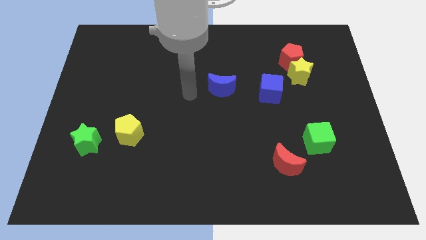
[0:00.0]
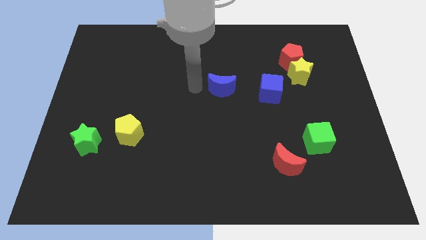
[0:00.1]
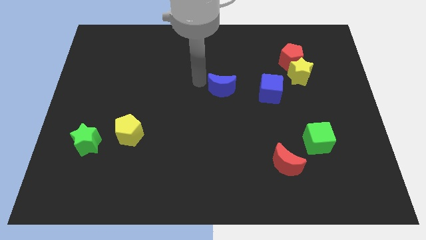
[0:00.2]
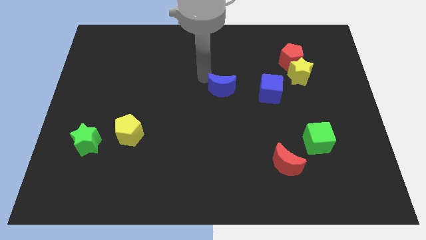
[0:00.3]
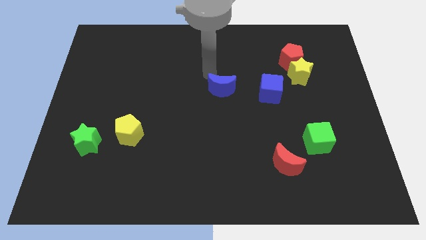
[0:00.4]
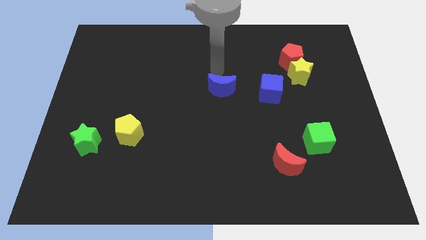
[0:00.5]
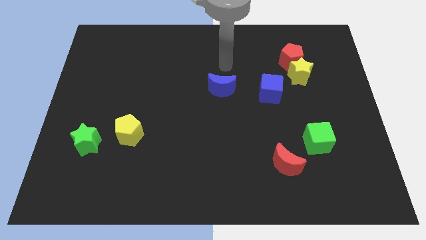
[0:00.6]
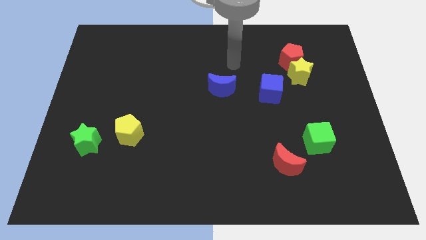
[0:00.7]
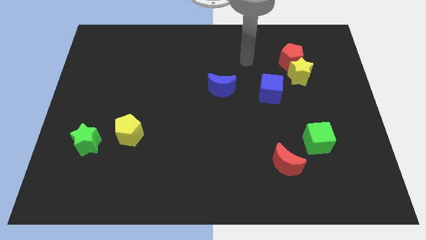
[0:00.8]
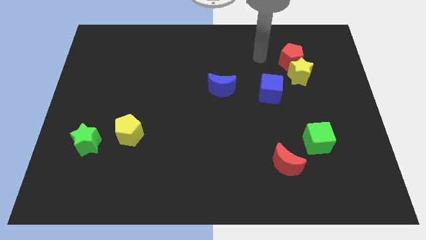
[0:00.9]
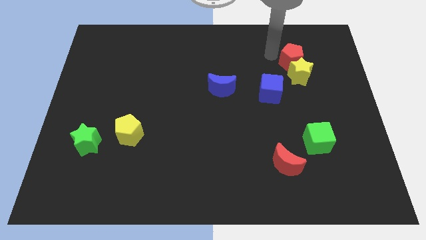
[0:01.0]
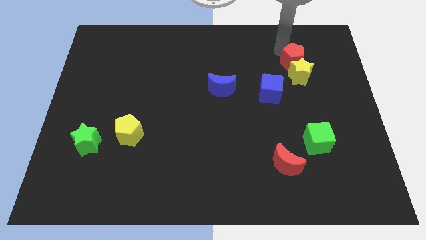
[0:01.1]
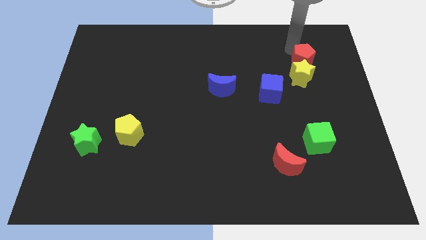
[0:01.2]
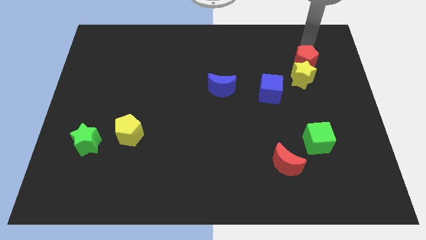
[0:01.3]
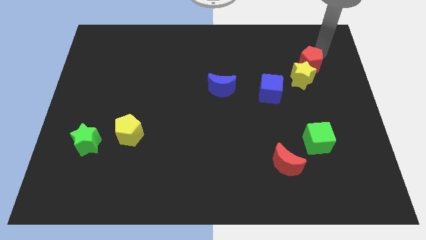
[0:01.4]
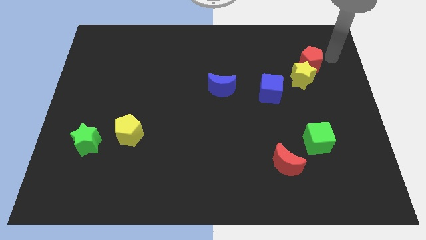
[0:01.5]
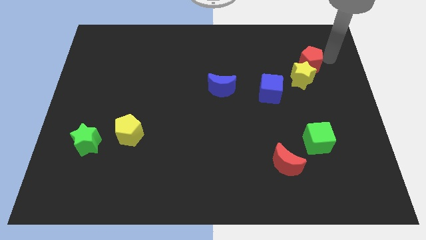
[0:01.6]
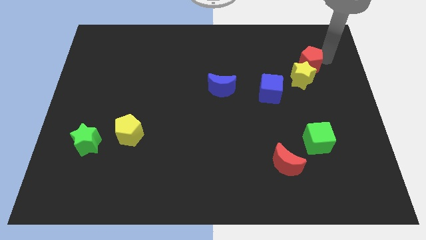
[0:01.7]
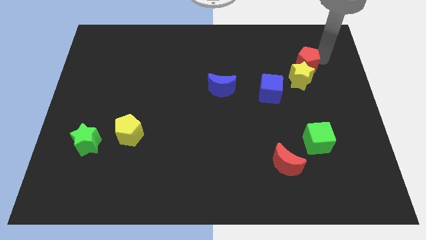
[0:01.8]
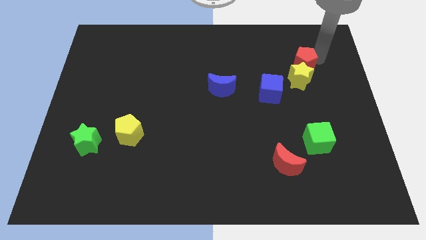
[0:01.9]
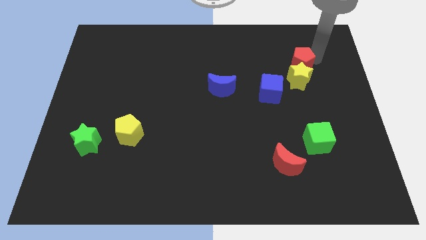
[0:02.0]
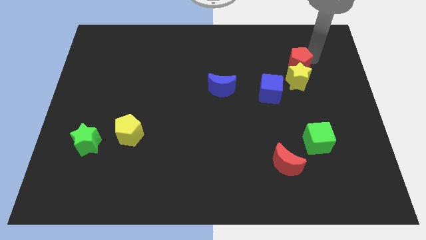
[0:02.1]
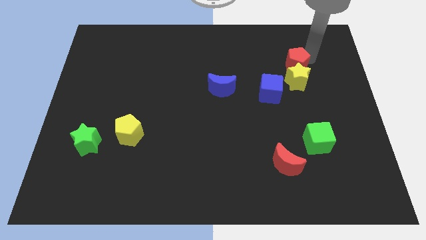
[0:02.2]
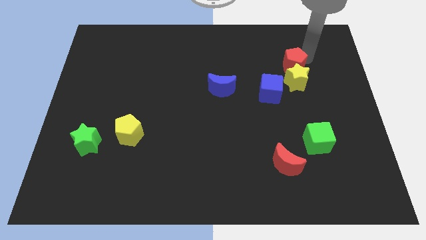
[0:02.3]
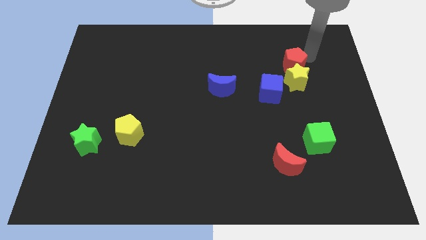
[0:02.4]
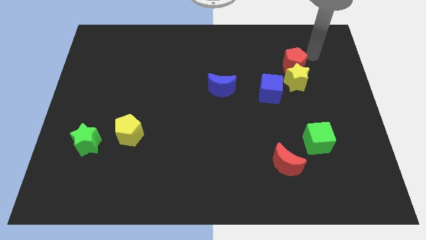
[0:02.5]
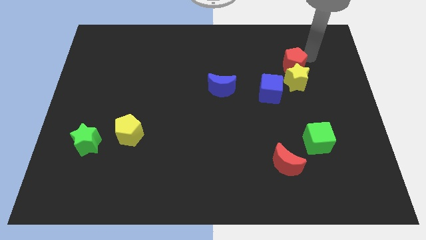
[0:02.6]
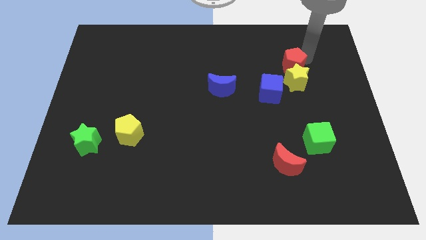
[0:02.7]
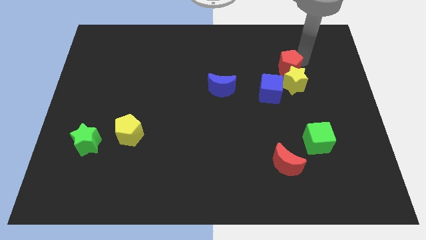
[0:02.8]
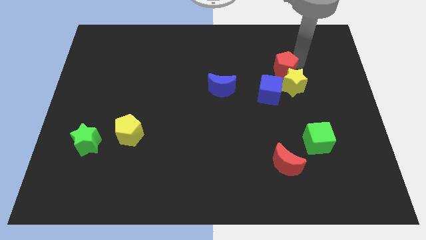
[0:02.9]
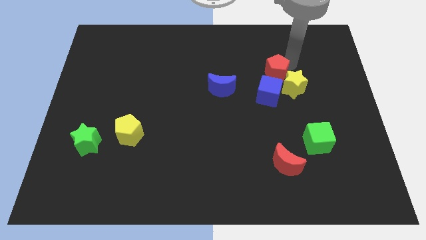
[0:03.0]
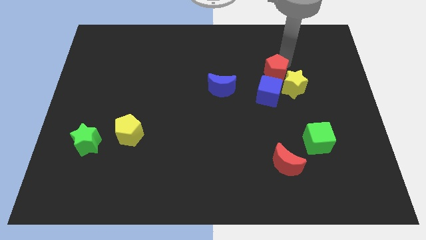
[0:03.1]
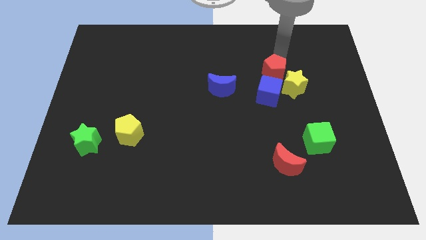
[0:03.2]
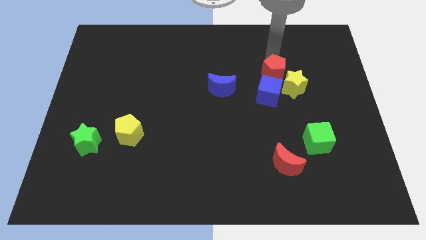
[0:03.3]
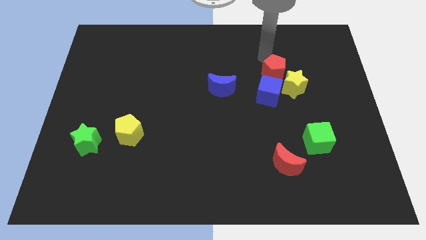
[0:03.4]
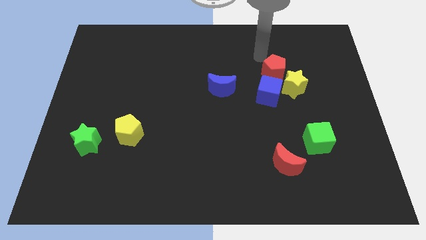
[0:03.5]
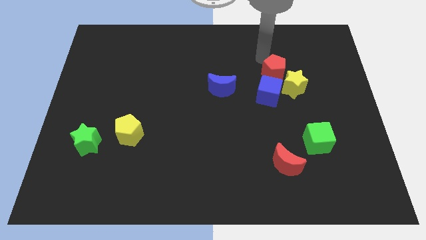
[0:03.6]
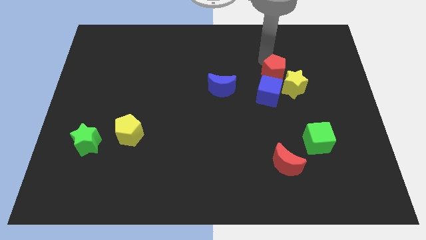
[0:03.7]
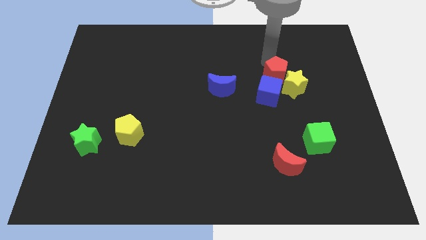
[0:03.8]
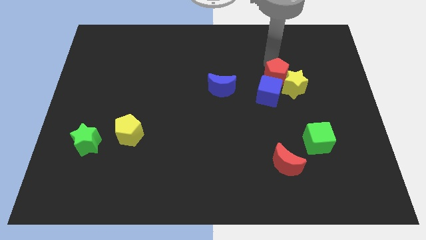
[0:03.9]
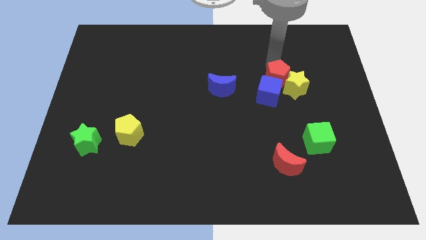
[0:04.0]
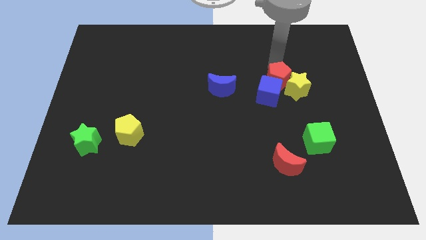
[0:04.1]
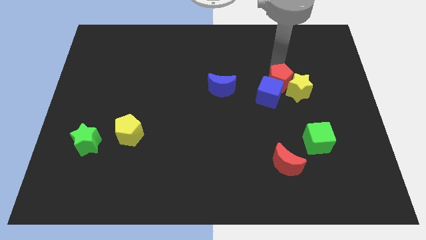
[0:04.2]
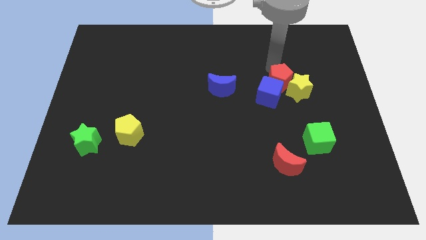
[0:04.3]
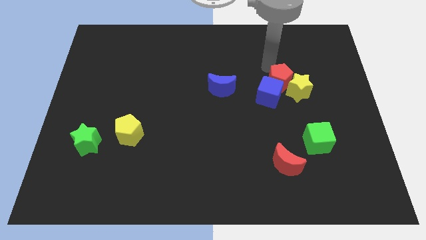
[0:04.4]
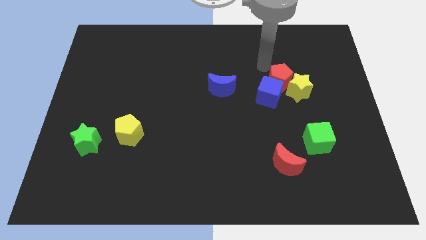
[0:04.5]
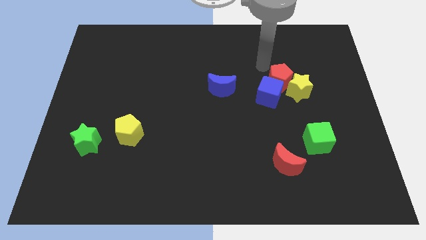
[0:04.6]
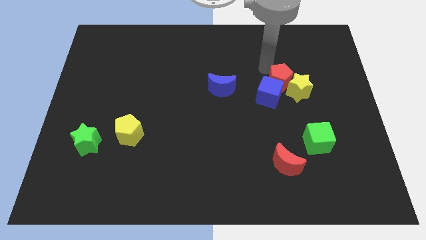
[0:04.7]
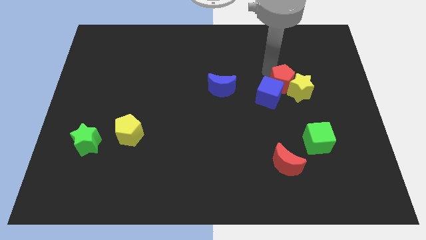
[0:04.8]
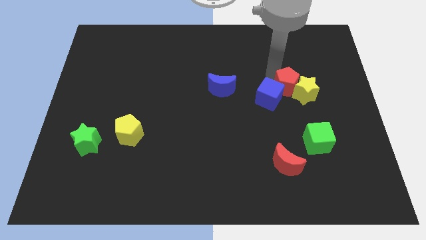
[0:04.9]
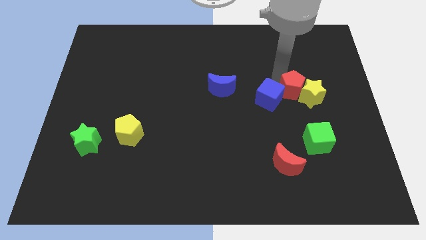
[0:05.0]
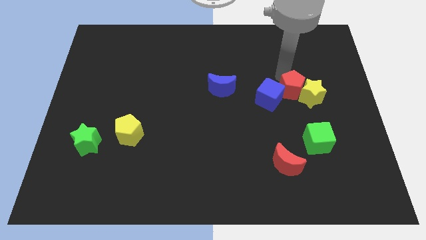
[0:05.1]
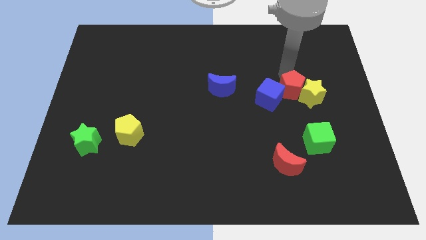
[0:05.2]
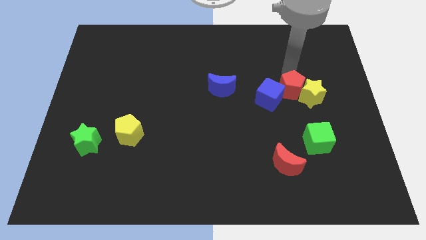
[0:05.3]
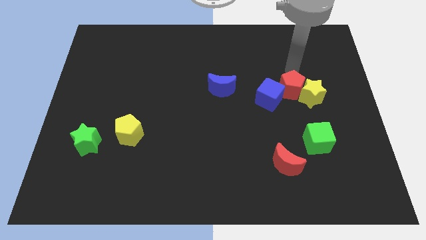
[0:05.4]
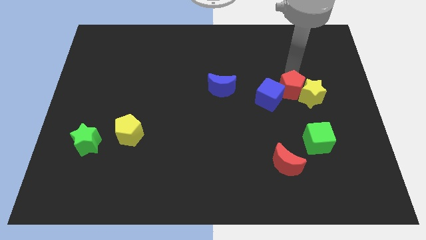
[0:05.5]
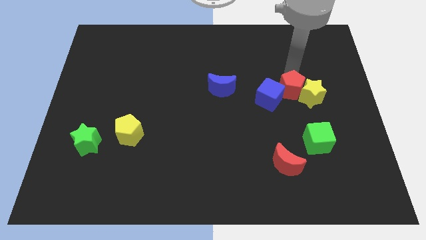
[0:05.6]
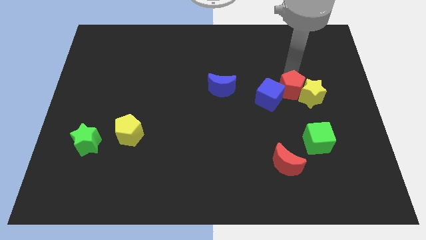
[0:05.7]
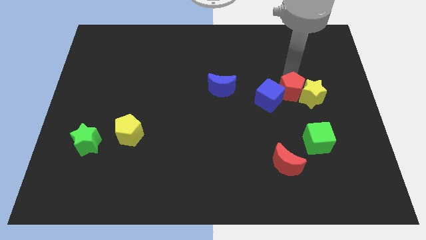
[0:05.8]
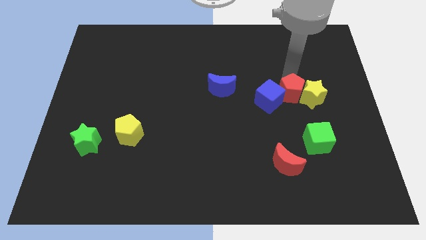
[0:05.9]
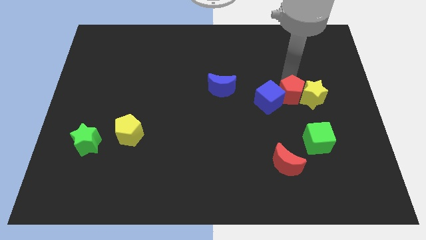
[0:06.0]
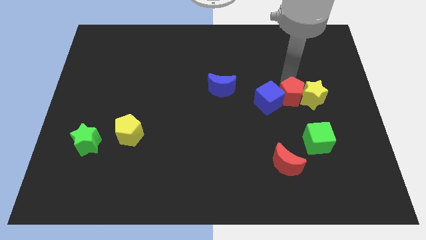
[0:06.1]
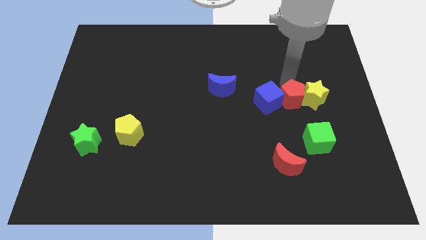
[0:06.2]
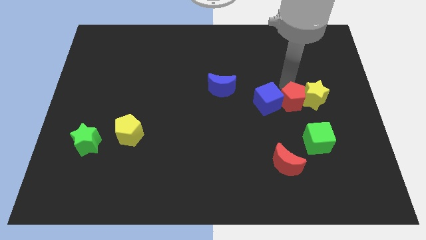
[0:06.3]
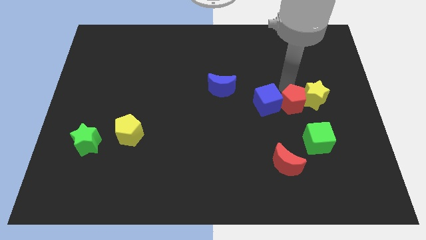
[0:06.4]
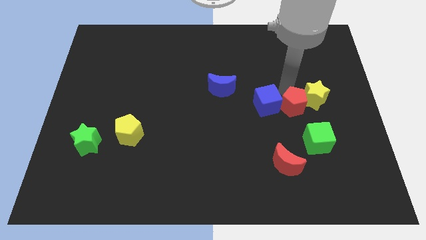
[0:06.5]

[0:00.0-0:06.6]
put the red pentagon to the top left side of the green cube

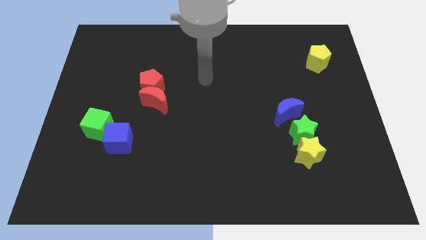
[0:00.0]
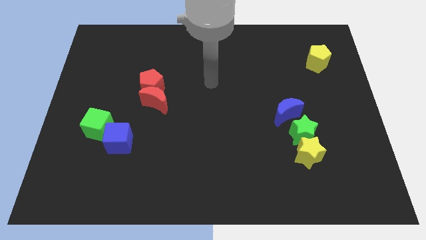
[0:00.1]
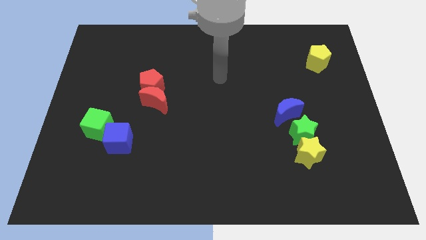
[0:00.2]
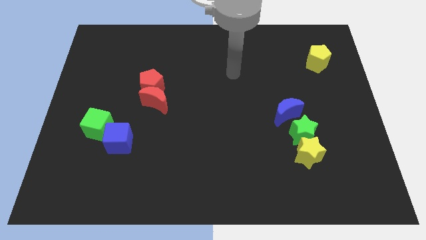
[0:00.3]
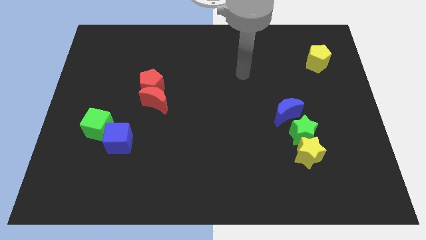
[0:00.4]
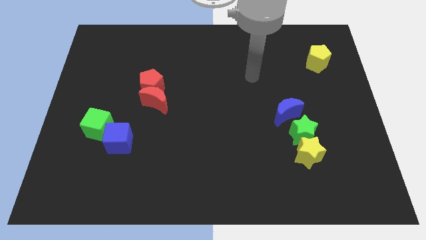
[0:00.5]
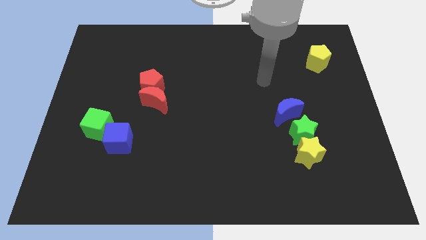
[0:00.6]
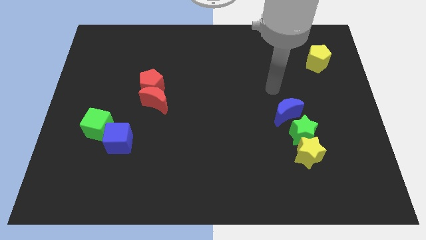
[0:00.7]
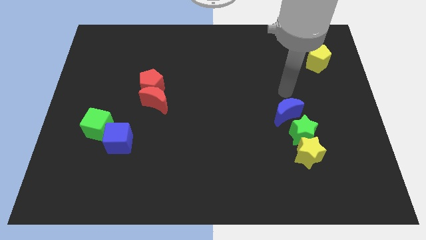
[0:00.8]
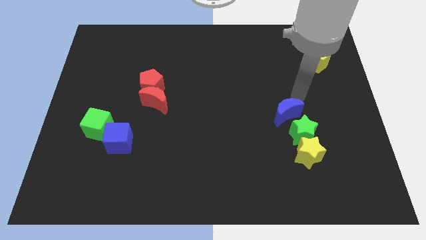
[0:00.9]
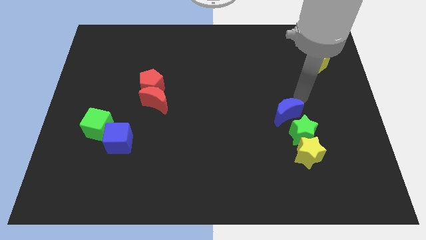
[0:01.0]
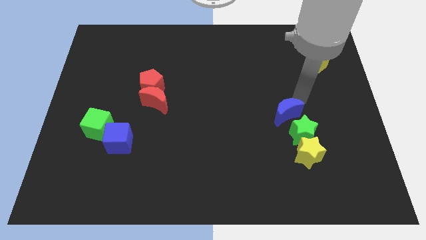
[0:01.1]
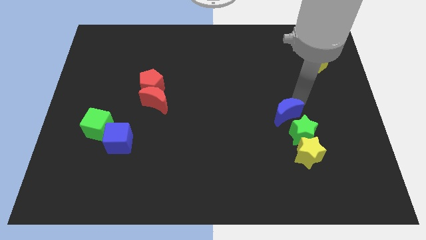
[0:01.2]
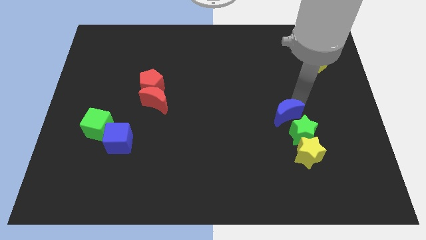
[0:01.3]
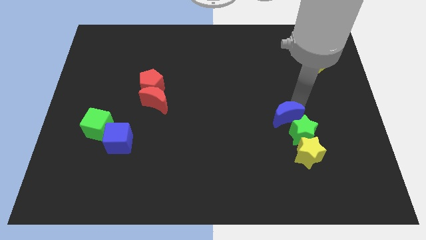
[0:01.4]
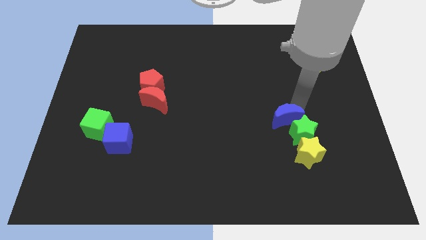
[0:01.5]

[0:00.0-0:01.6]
put the blue moon just left of the green star
